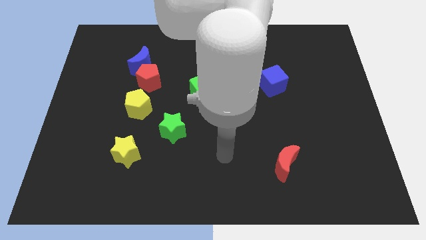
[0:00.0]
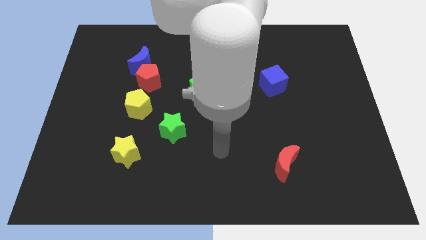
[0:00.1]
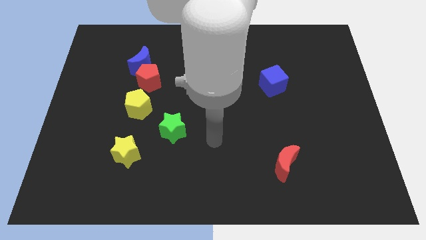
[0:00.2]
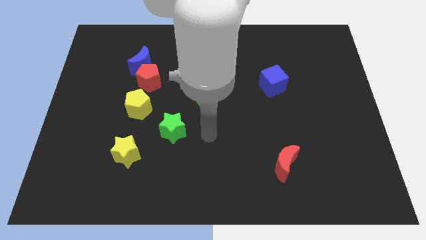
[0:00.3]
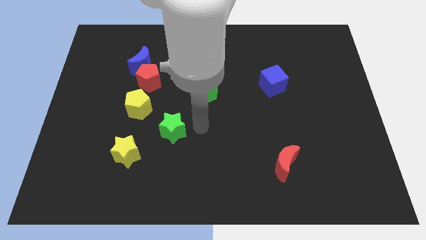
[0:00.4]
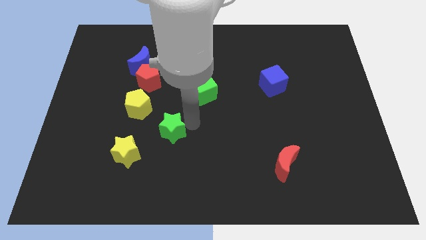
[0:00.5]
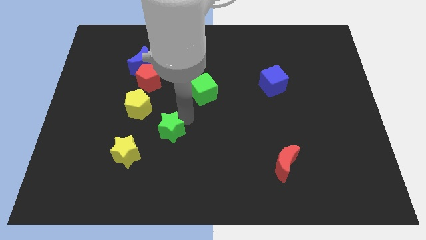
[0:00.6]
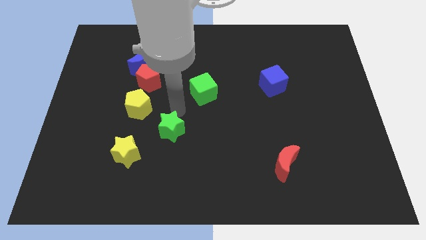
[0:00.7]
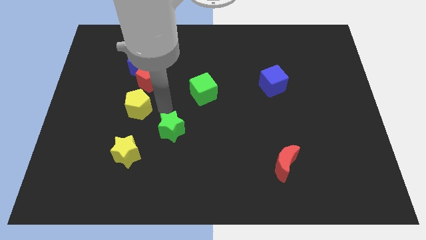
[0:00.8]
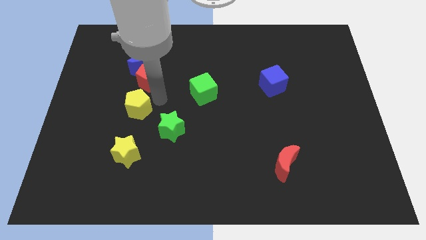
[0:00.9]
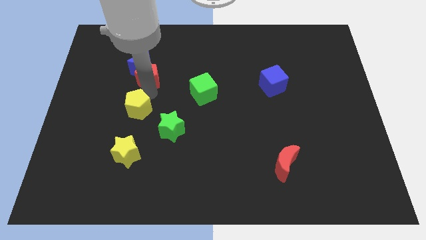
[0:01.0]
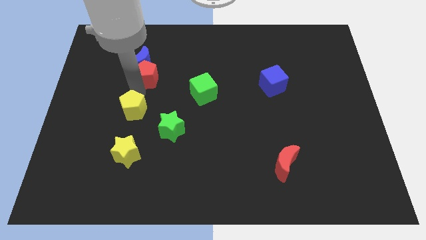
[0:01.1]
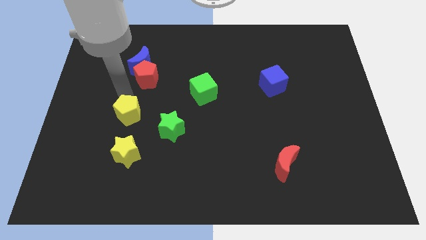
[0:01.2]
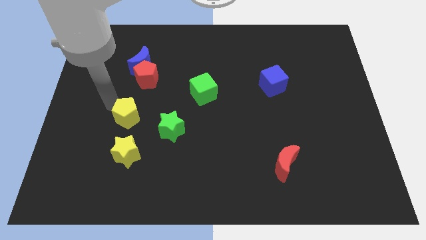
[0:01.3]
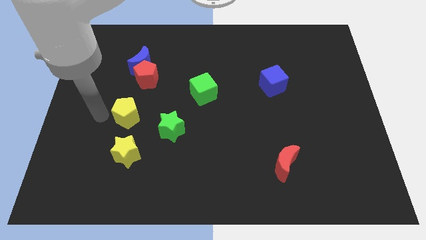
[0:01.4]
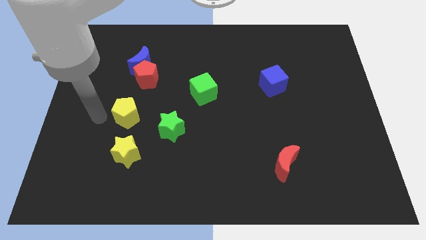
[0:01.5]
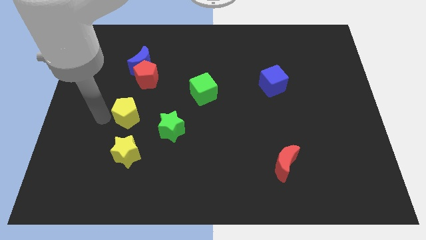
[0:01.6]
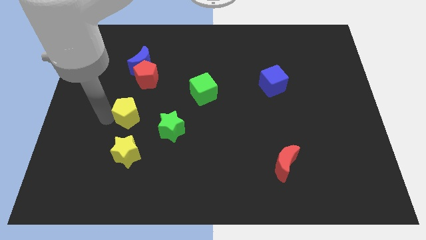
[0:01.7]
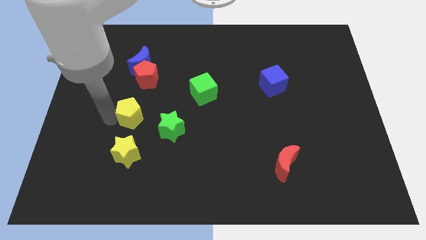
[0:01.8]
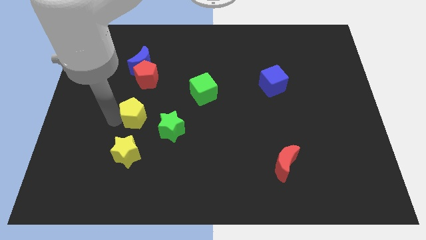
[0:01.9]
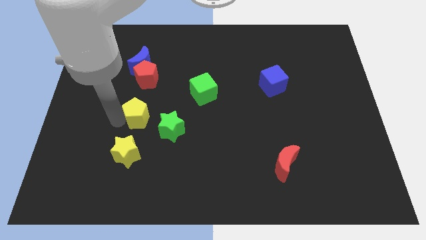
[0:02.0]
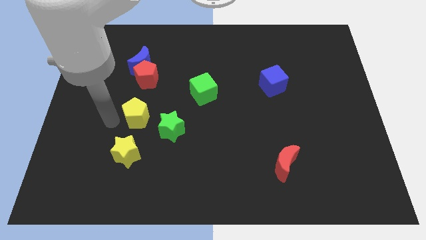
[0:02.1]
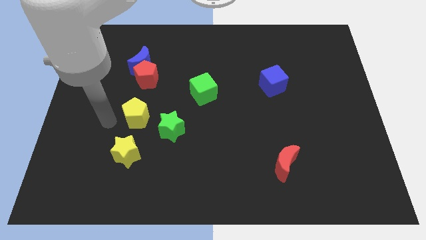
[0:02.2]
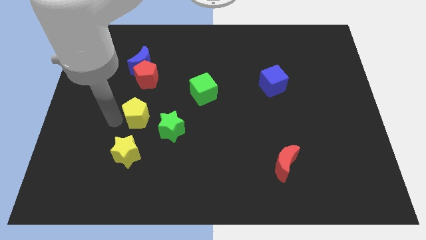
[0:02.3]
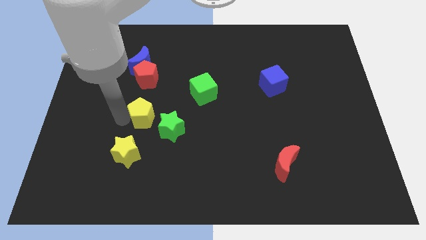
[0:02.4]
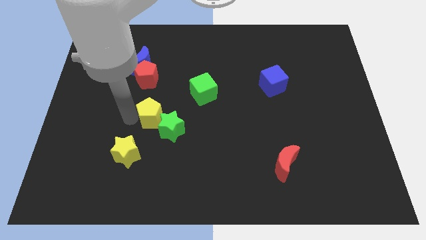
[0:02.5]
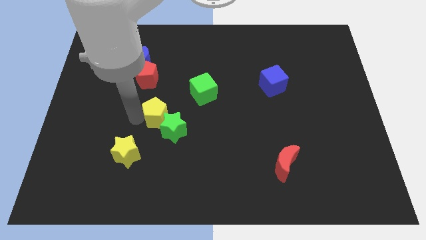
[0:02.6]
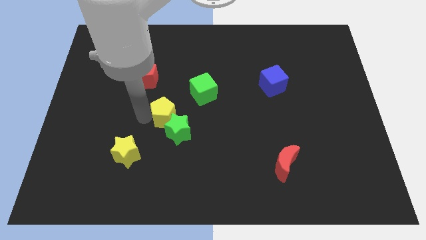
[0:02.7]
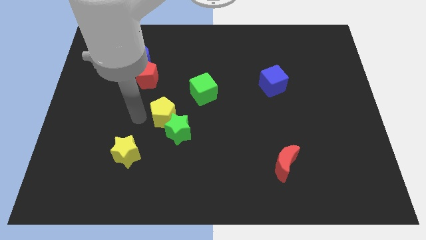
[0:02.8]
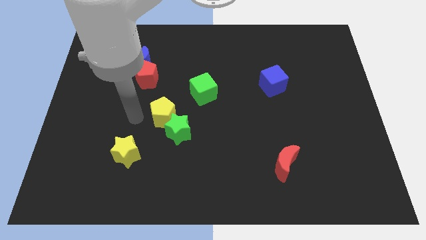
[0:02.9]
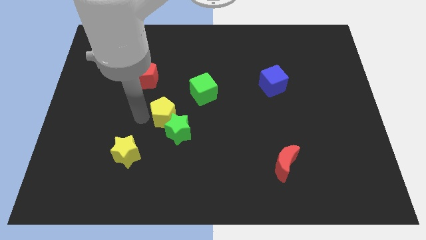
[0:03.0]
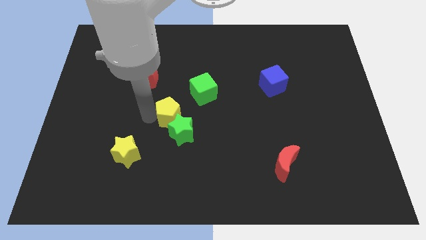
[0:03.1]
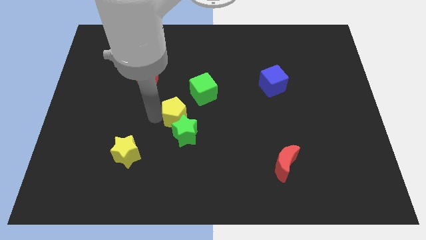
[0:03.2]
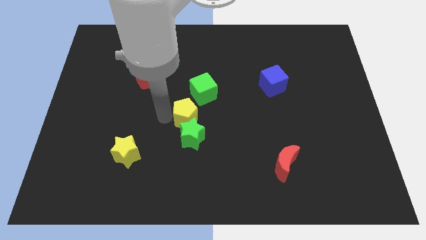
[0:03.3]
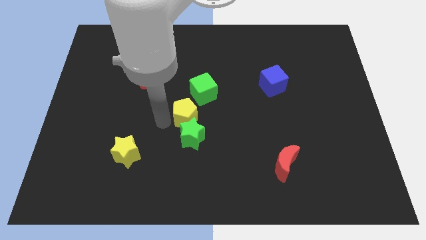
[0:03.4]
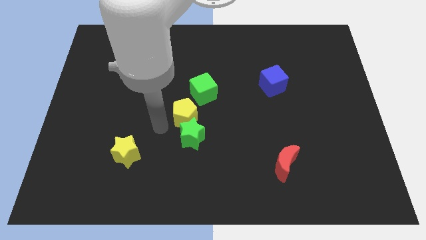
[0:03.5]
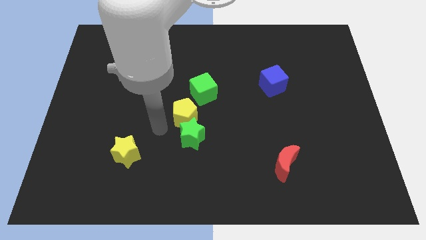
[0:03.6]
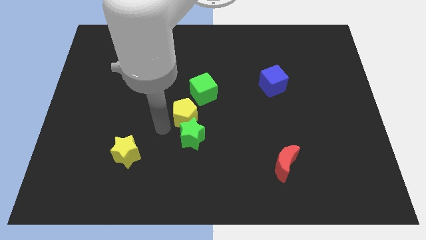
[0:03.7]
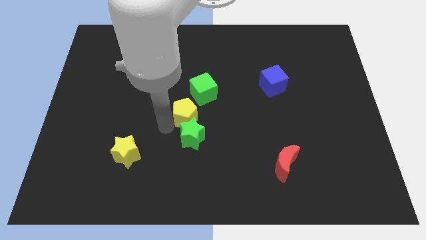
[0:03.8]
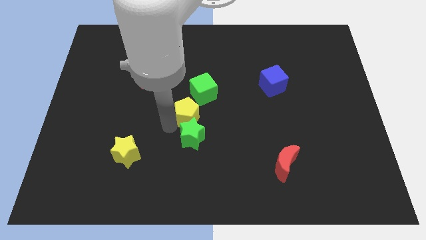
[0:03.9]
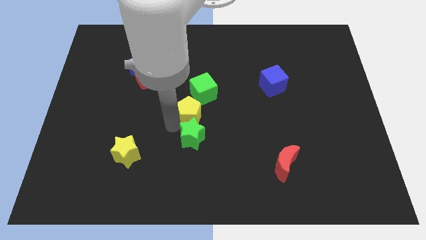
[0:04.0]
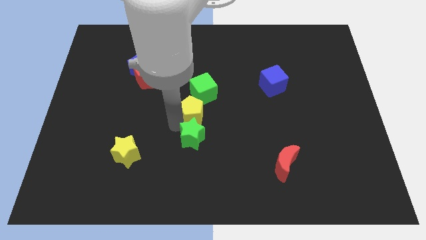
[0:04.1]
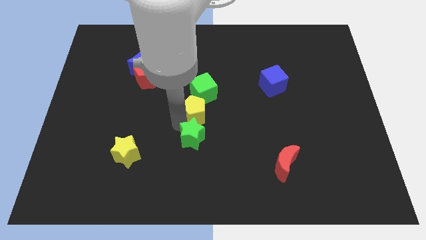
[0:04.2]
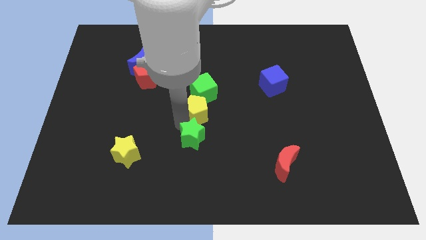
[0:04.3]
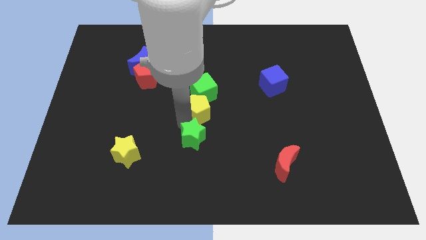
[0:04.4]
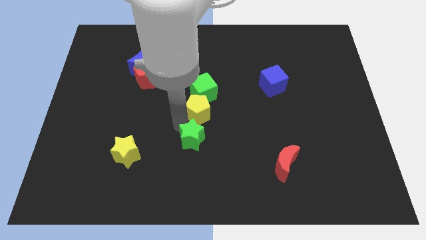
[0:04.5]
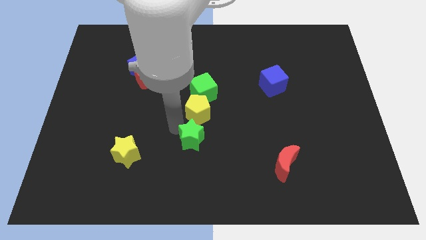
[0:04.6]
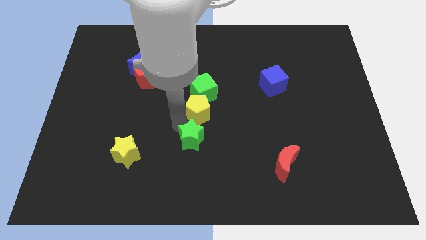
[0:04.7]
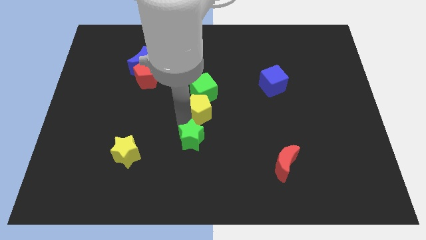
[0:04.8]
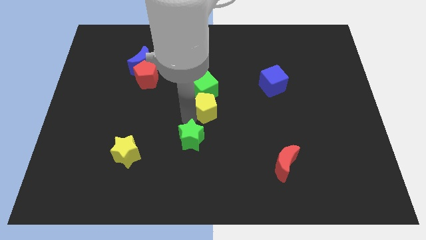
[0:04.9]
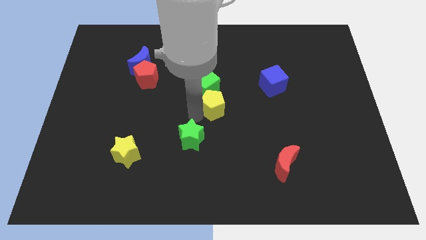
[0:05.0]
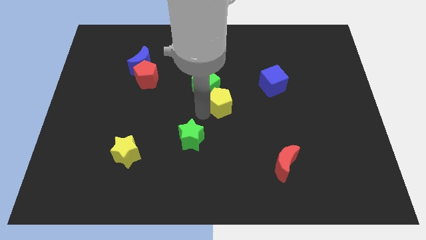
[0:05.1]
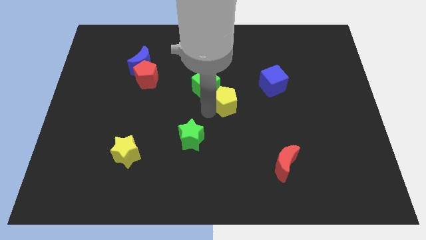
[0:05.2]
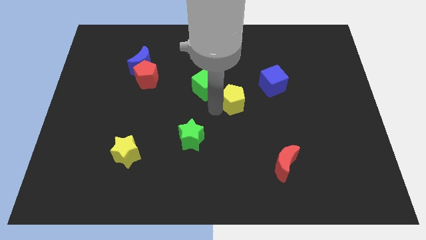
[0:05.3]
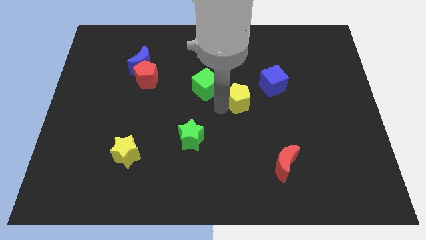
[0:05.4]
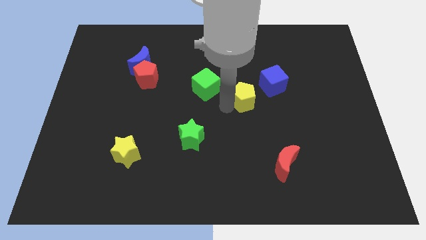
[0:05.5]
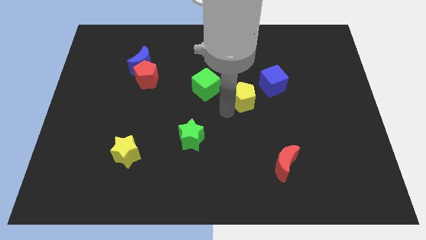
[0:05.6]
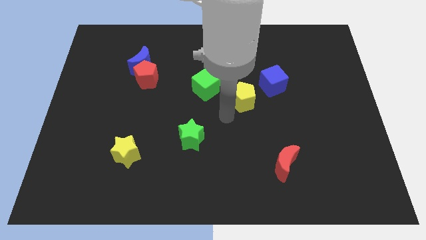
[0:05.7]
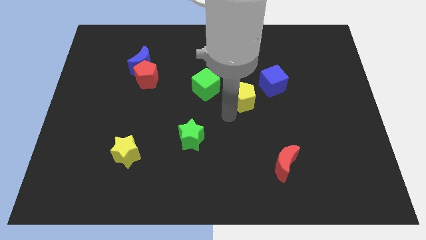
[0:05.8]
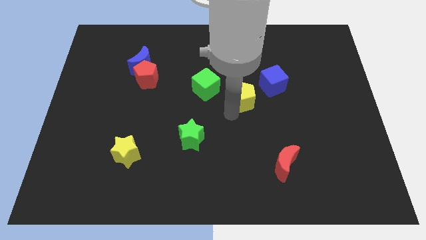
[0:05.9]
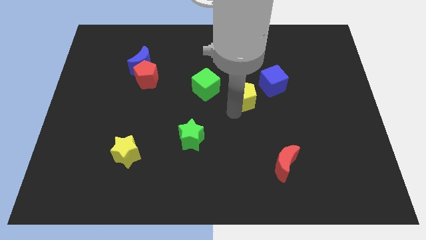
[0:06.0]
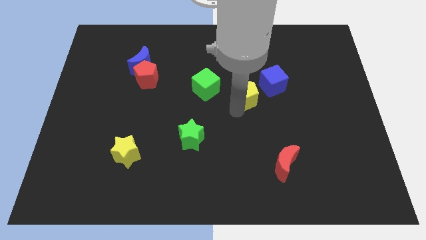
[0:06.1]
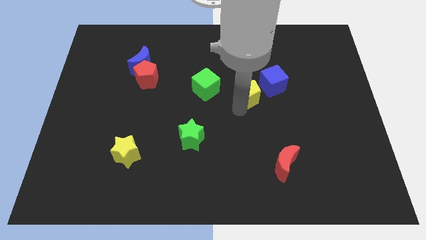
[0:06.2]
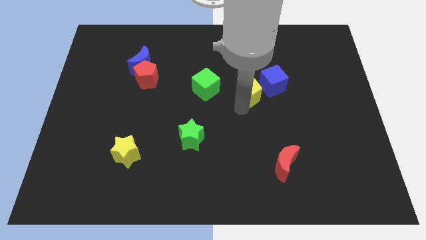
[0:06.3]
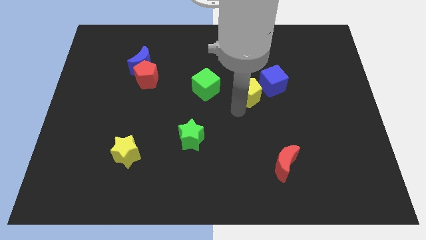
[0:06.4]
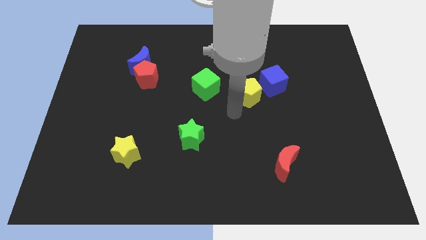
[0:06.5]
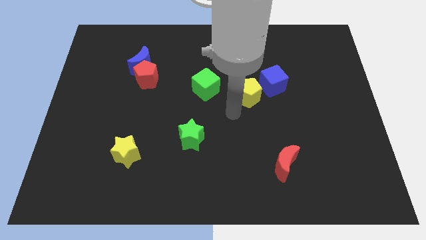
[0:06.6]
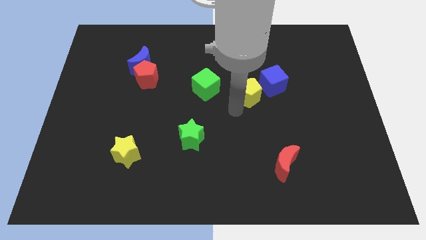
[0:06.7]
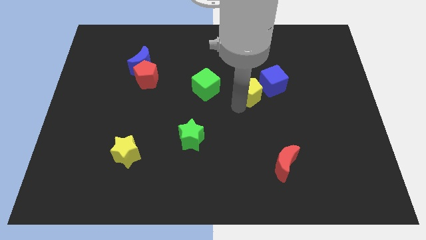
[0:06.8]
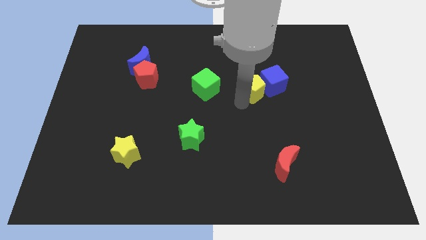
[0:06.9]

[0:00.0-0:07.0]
move the yellow pentagon towards the blue cube
